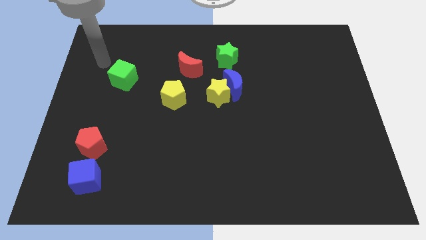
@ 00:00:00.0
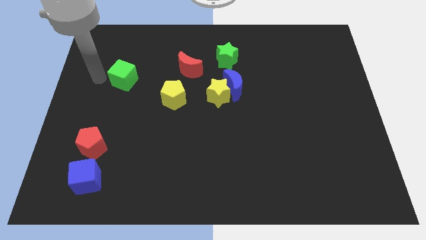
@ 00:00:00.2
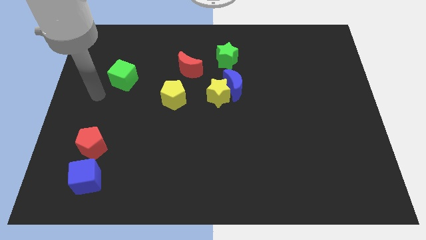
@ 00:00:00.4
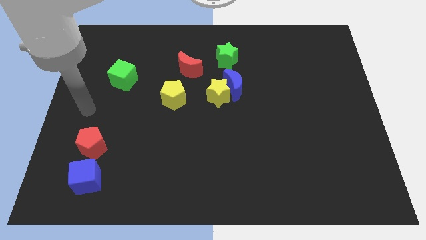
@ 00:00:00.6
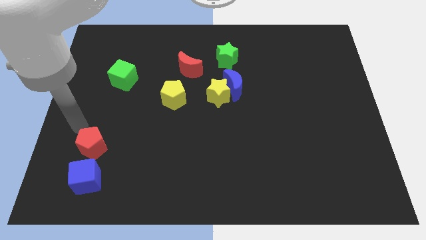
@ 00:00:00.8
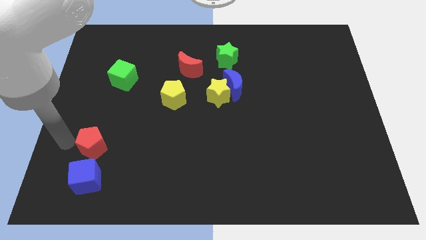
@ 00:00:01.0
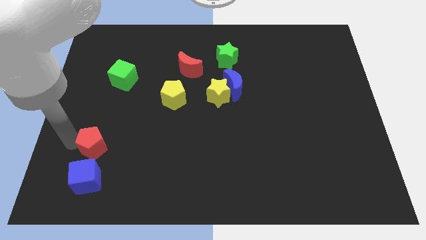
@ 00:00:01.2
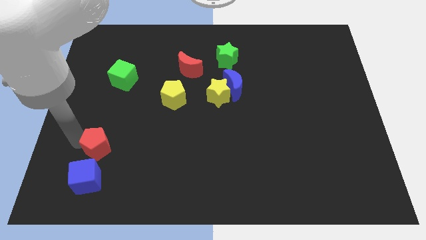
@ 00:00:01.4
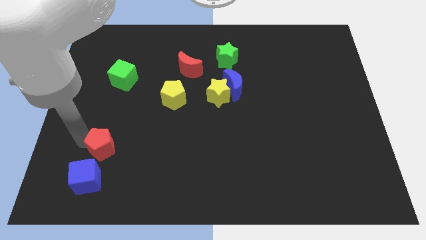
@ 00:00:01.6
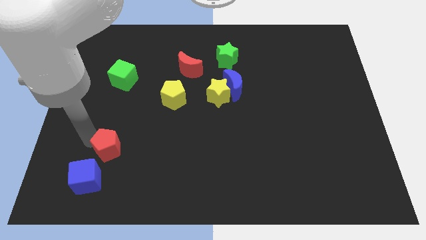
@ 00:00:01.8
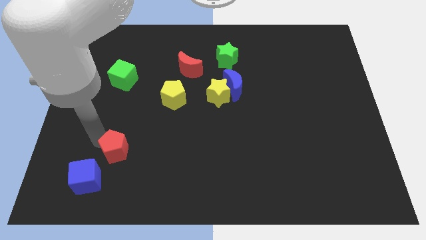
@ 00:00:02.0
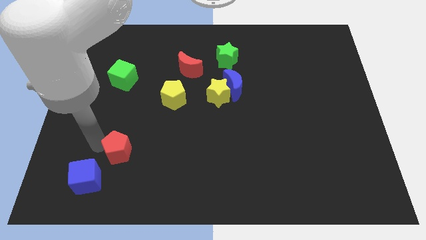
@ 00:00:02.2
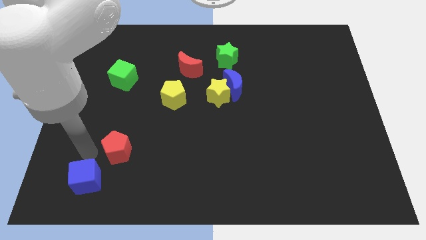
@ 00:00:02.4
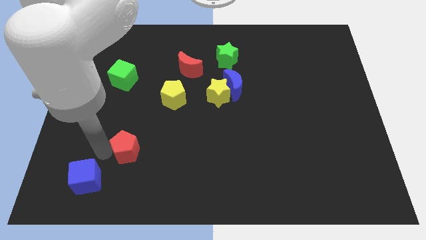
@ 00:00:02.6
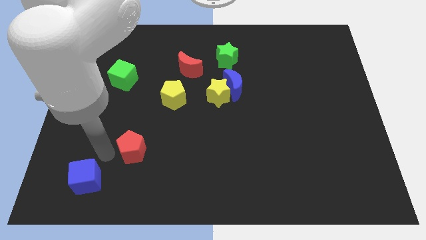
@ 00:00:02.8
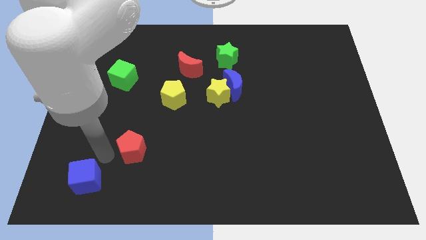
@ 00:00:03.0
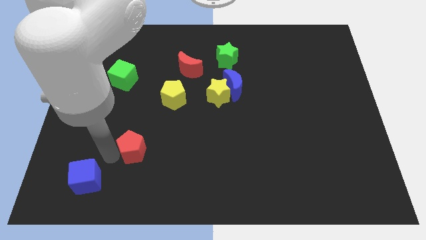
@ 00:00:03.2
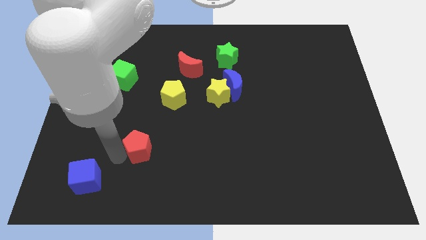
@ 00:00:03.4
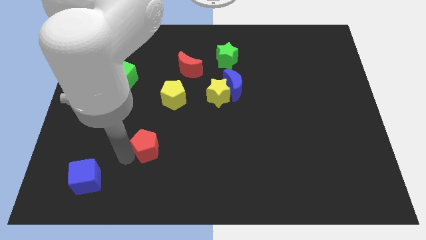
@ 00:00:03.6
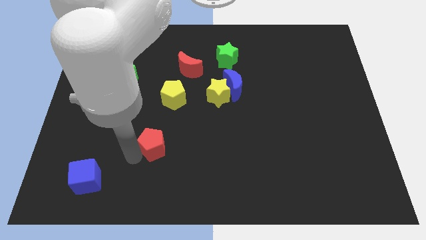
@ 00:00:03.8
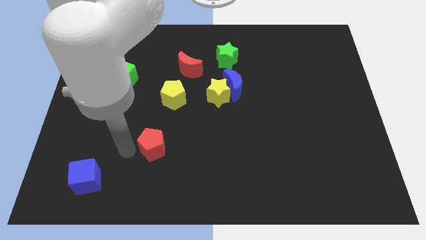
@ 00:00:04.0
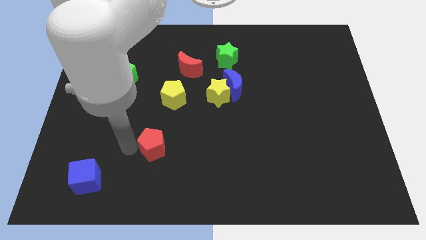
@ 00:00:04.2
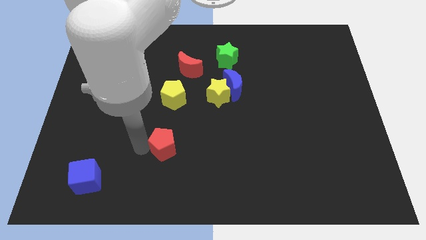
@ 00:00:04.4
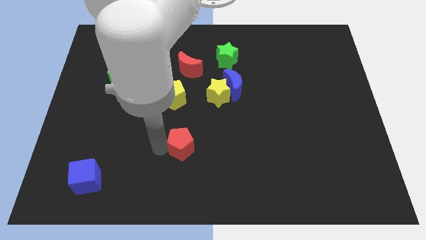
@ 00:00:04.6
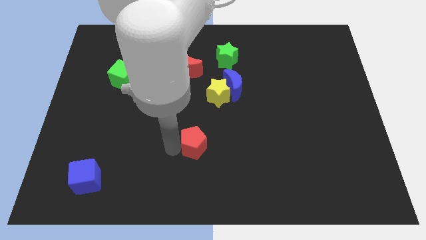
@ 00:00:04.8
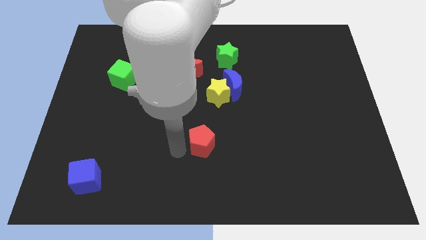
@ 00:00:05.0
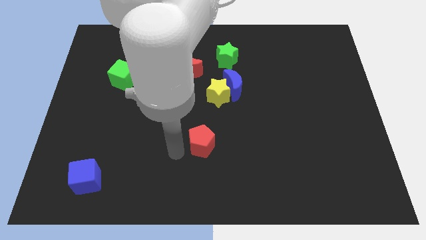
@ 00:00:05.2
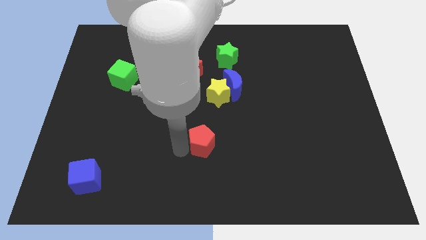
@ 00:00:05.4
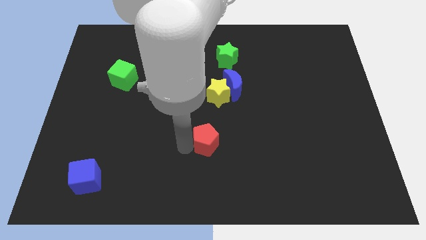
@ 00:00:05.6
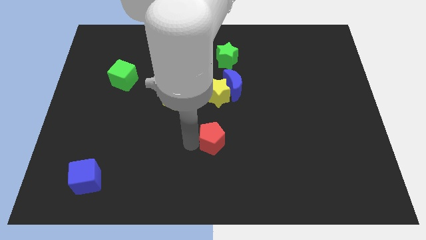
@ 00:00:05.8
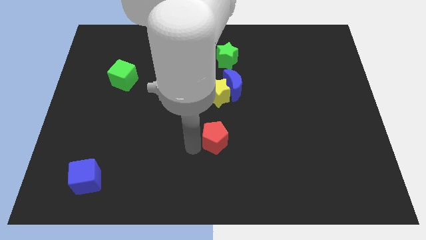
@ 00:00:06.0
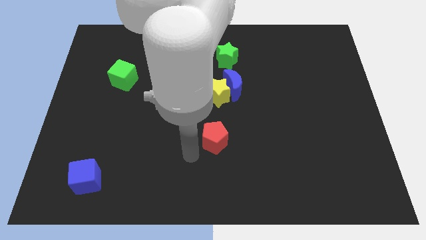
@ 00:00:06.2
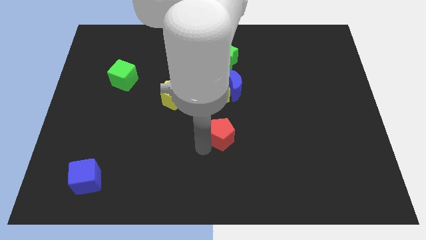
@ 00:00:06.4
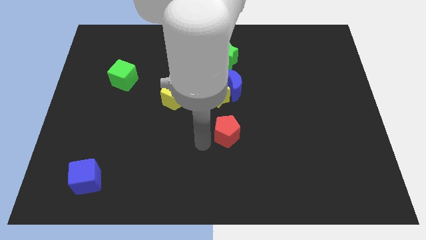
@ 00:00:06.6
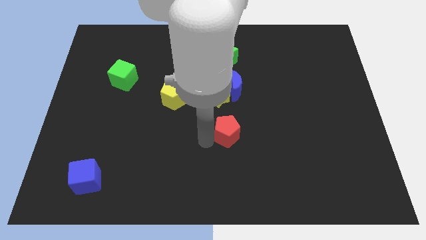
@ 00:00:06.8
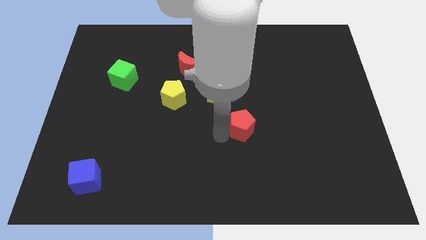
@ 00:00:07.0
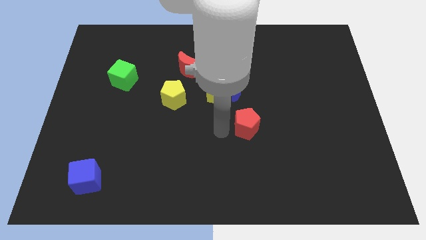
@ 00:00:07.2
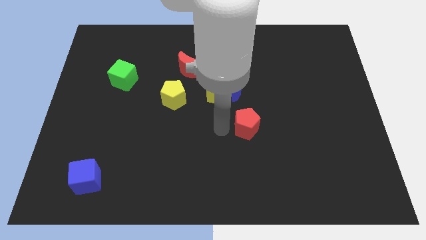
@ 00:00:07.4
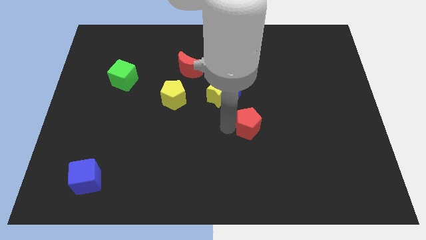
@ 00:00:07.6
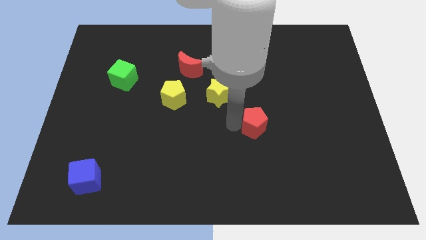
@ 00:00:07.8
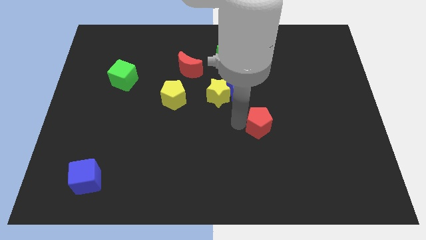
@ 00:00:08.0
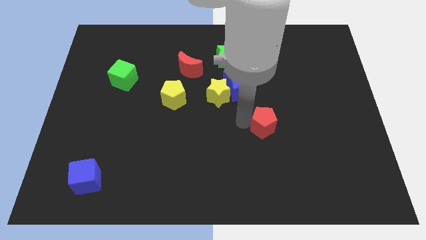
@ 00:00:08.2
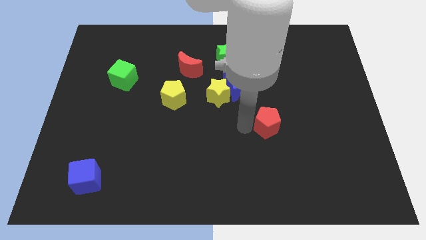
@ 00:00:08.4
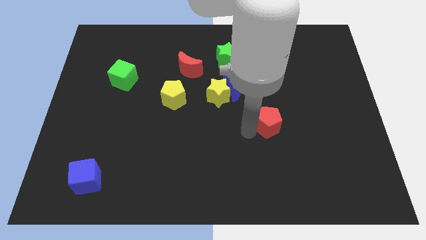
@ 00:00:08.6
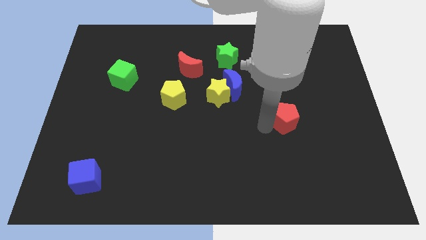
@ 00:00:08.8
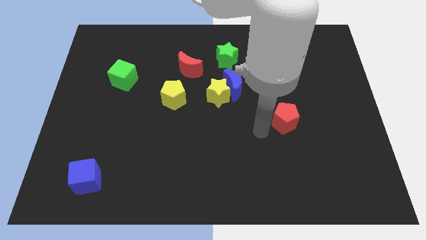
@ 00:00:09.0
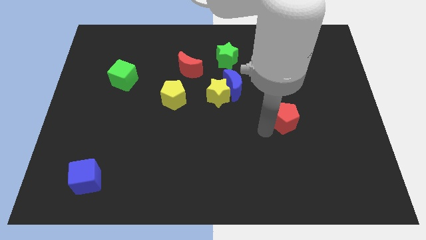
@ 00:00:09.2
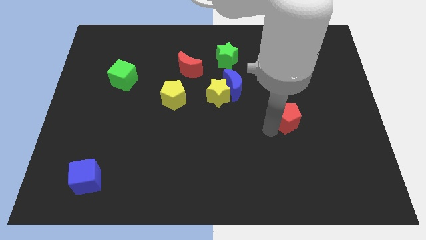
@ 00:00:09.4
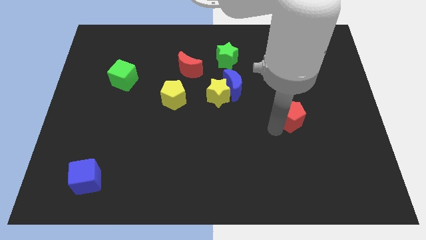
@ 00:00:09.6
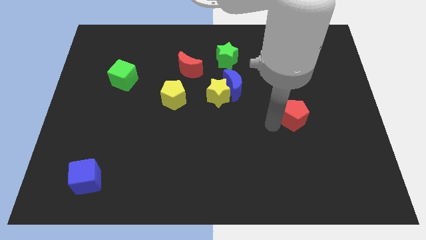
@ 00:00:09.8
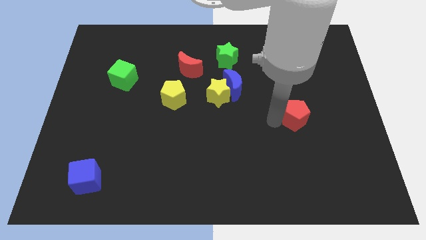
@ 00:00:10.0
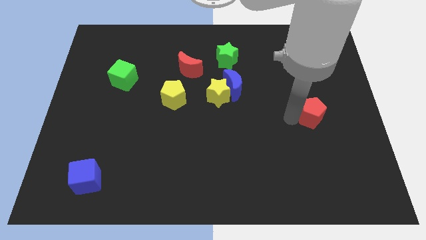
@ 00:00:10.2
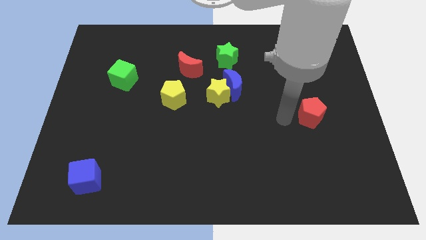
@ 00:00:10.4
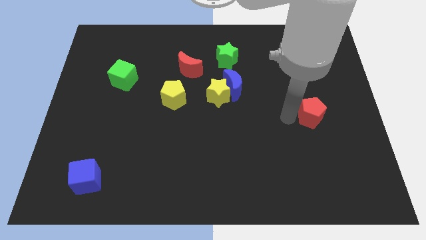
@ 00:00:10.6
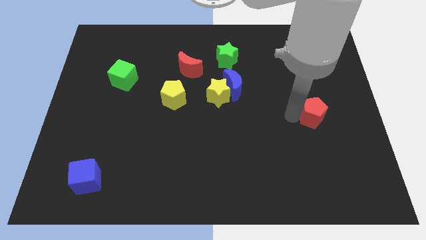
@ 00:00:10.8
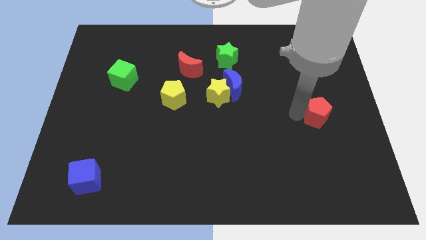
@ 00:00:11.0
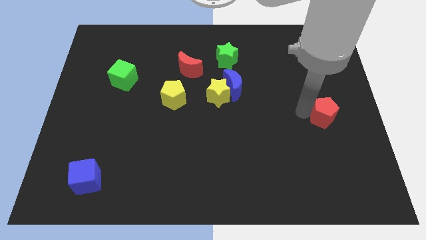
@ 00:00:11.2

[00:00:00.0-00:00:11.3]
push the red pentagon to the right side
